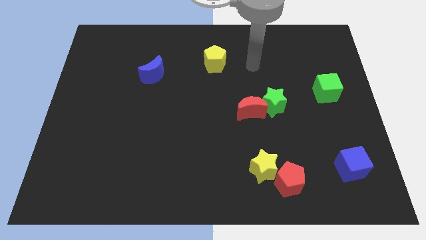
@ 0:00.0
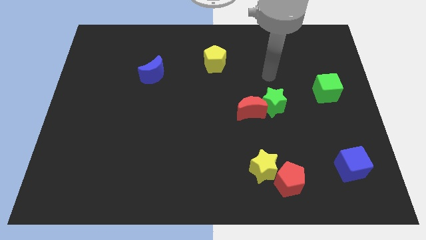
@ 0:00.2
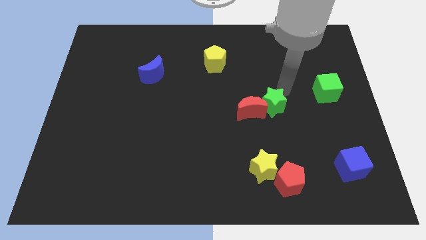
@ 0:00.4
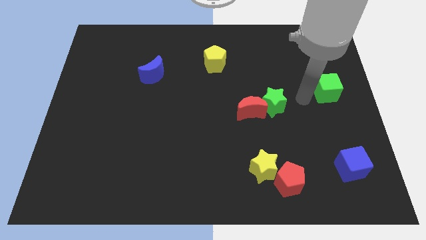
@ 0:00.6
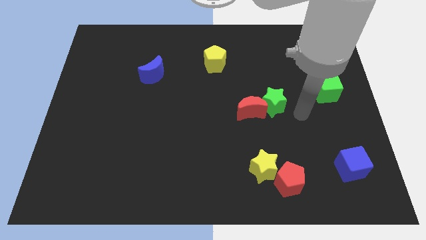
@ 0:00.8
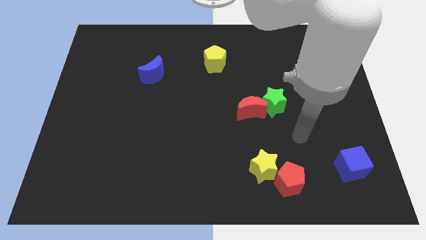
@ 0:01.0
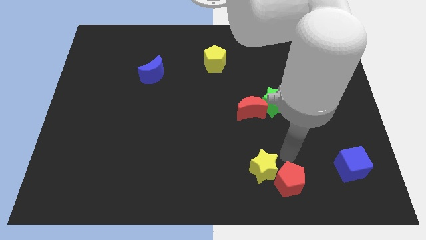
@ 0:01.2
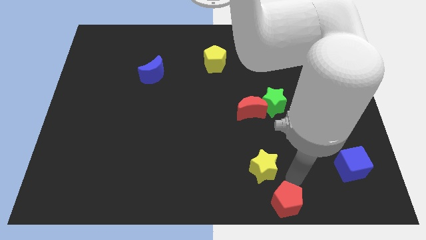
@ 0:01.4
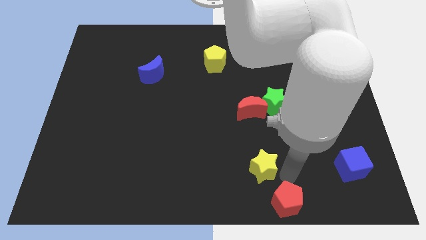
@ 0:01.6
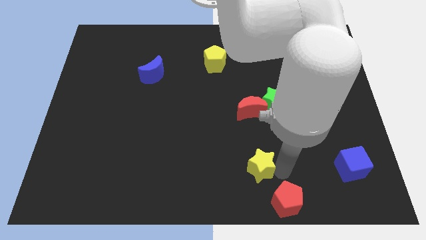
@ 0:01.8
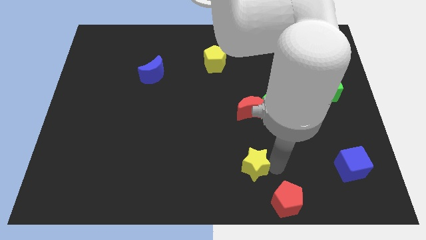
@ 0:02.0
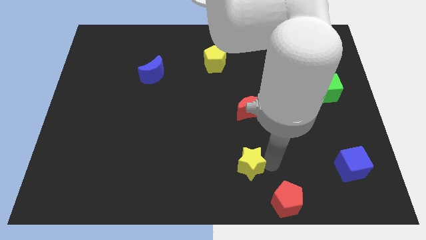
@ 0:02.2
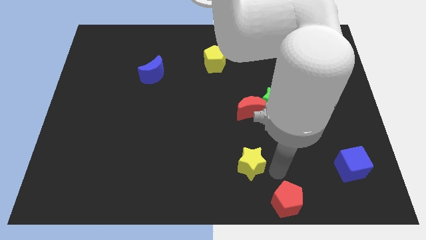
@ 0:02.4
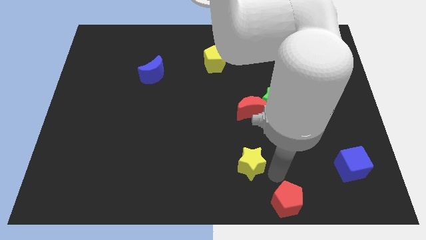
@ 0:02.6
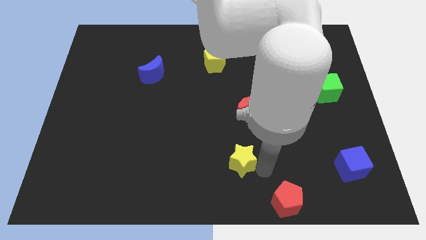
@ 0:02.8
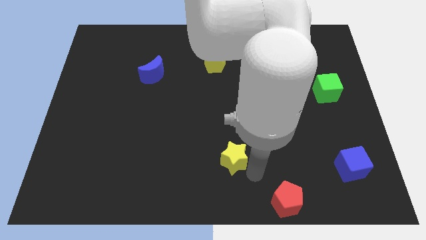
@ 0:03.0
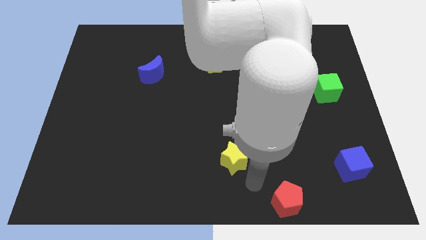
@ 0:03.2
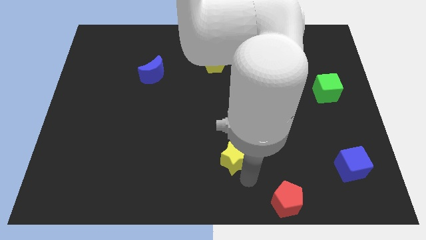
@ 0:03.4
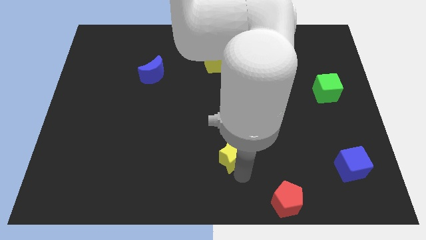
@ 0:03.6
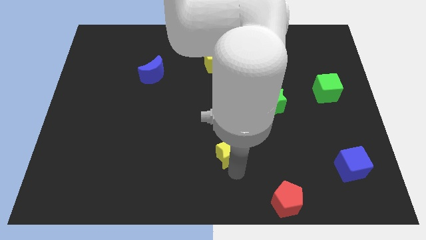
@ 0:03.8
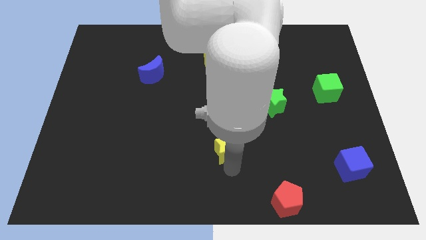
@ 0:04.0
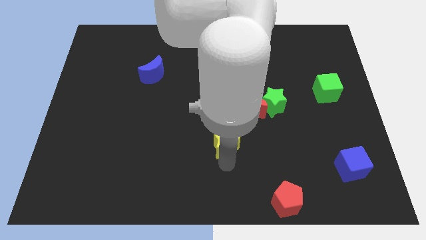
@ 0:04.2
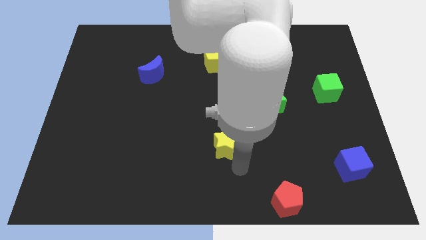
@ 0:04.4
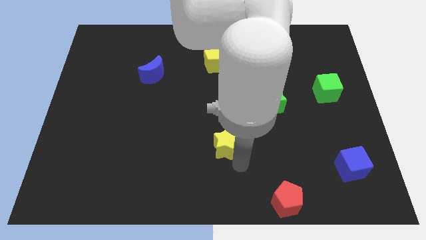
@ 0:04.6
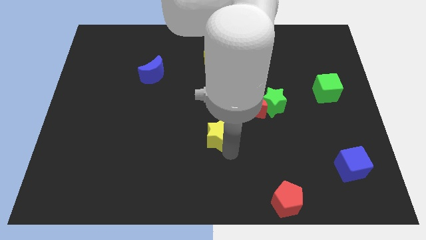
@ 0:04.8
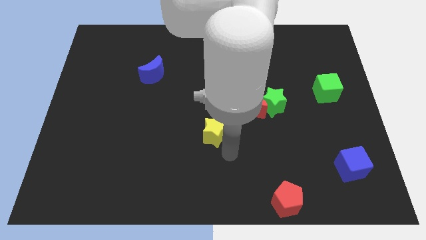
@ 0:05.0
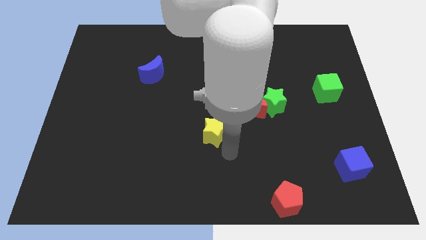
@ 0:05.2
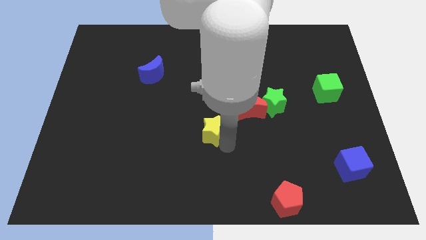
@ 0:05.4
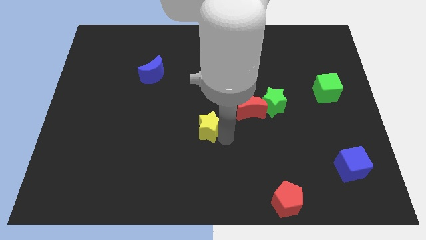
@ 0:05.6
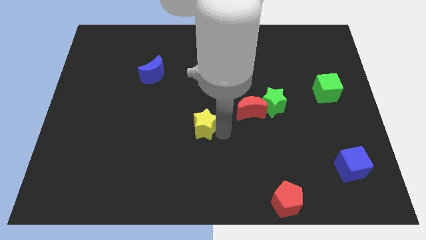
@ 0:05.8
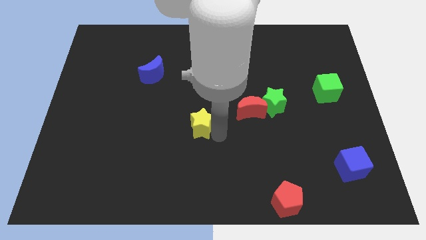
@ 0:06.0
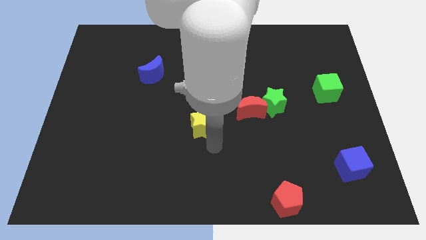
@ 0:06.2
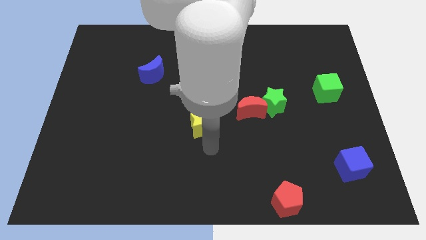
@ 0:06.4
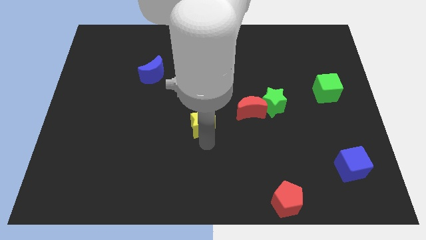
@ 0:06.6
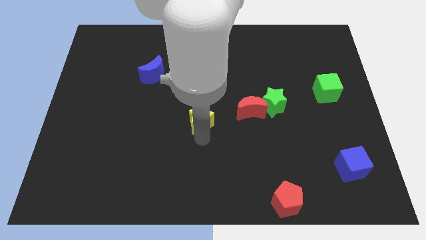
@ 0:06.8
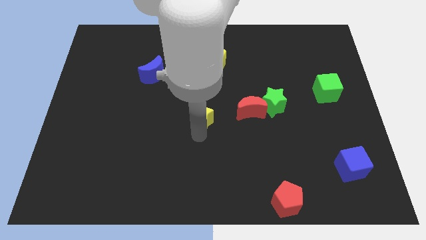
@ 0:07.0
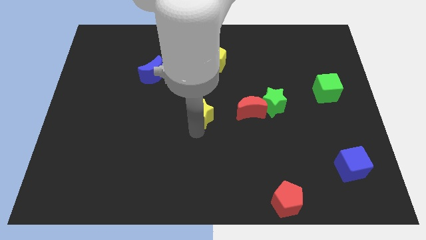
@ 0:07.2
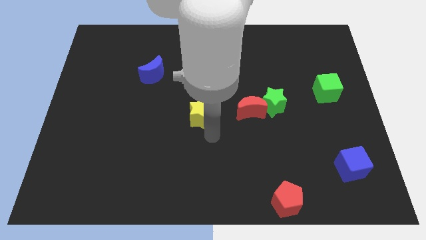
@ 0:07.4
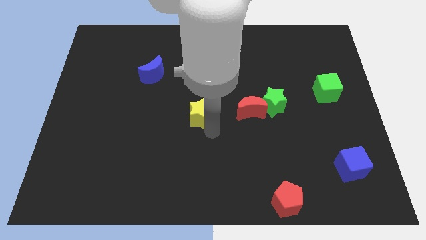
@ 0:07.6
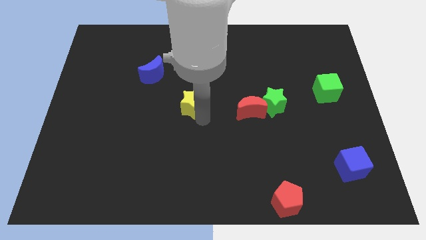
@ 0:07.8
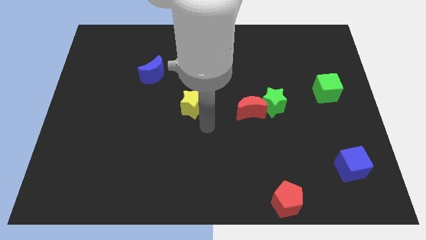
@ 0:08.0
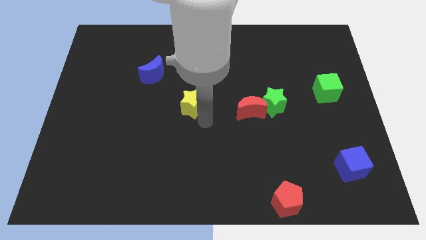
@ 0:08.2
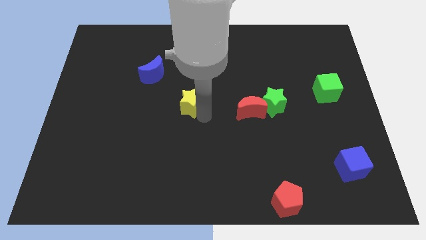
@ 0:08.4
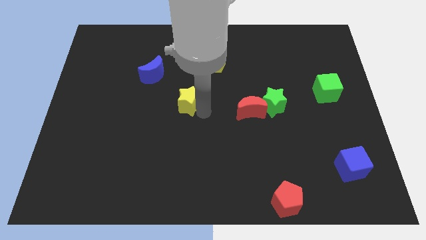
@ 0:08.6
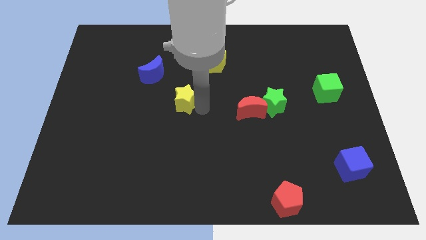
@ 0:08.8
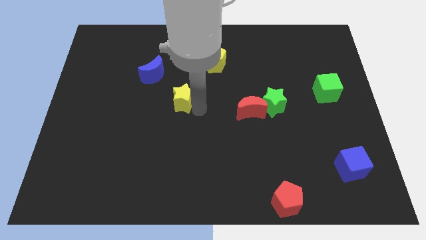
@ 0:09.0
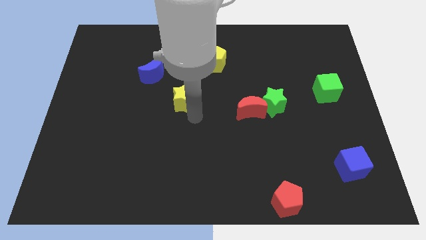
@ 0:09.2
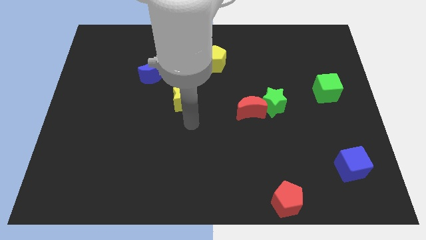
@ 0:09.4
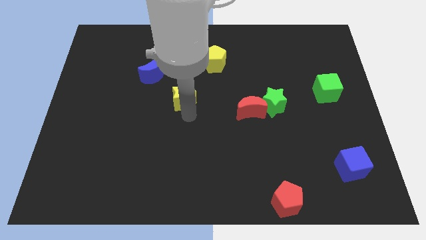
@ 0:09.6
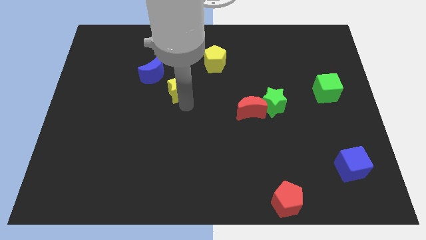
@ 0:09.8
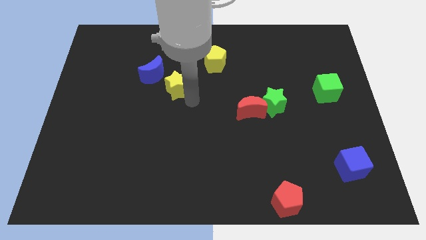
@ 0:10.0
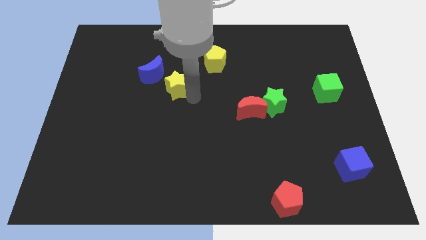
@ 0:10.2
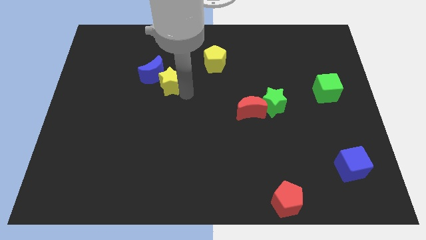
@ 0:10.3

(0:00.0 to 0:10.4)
slide the yellow star close to the blue moon

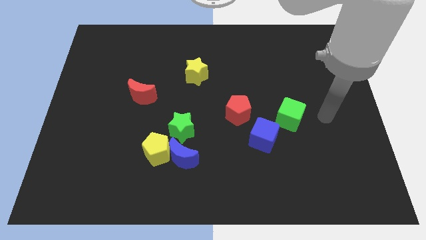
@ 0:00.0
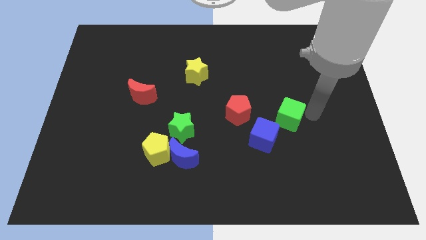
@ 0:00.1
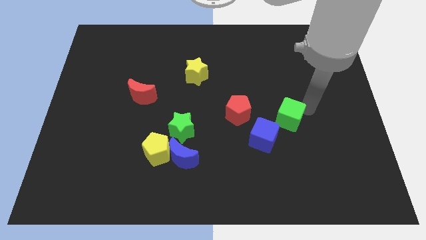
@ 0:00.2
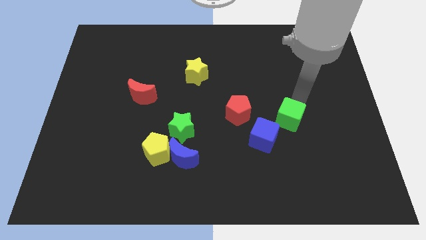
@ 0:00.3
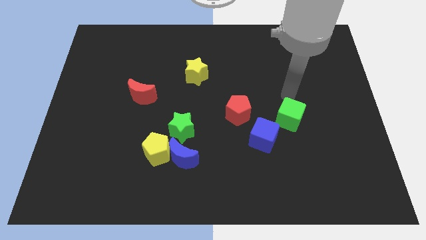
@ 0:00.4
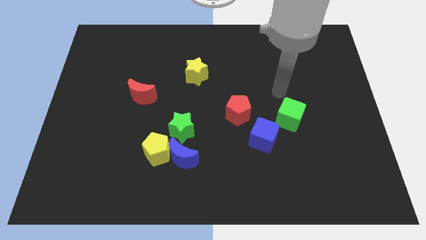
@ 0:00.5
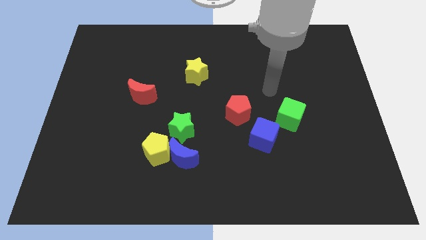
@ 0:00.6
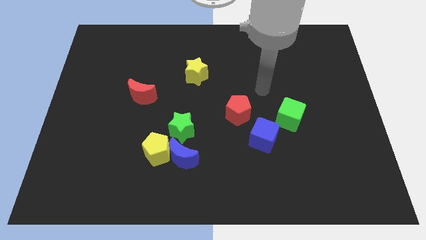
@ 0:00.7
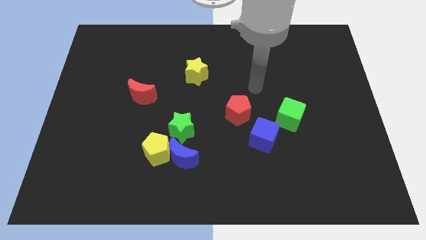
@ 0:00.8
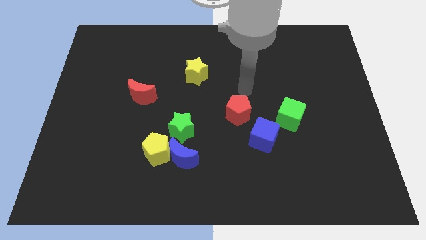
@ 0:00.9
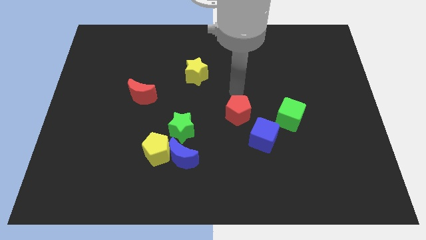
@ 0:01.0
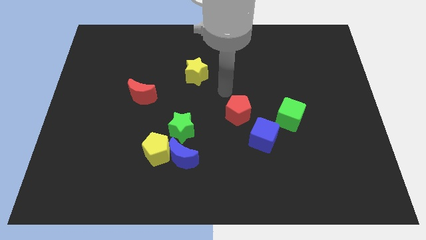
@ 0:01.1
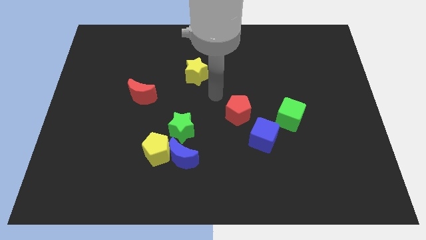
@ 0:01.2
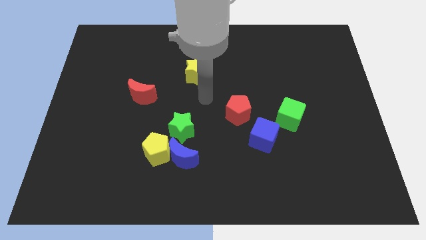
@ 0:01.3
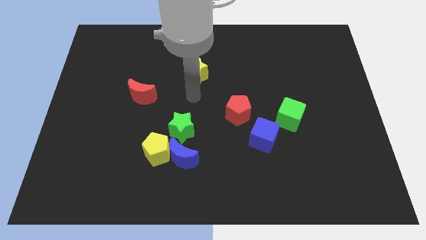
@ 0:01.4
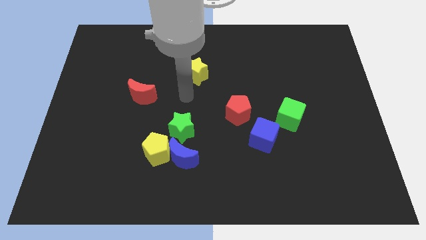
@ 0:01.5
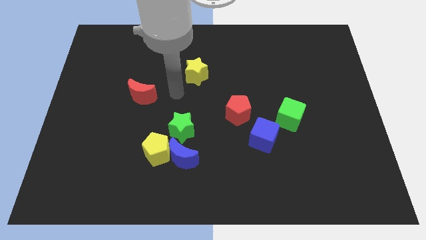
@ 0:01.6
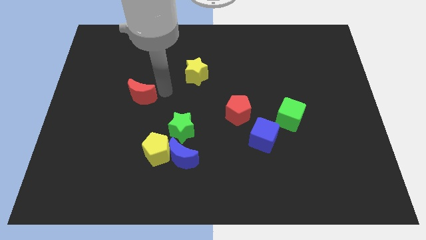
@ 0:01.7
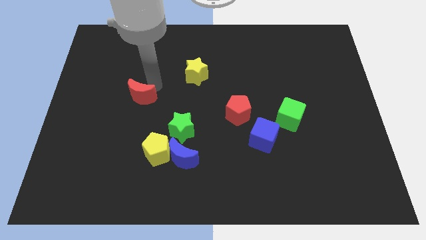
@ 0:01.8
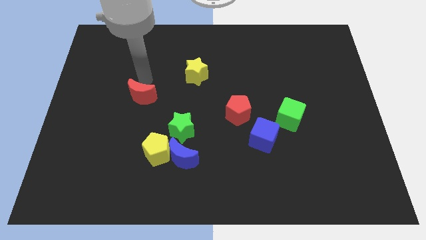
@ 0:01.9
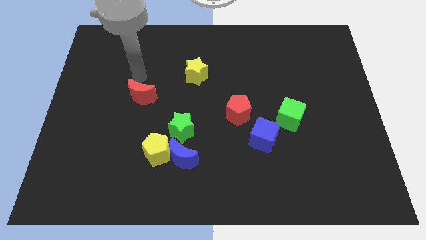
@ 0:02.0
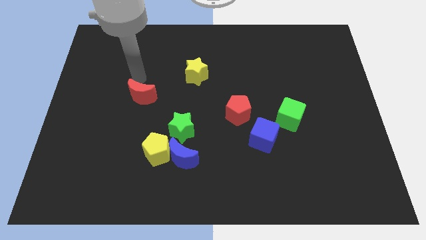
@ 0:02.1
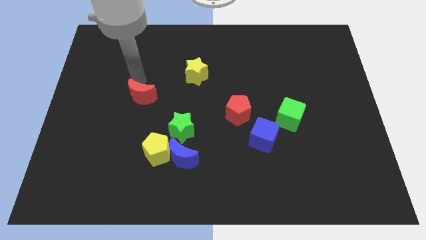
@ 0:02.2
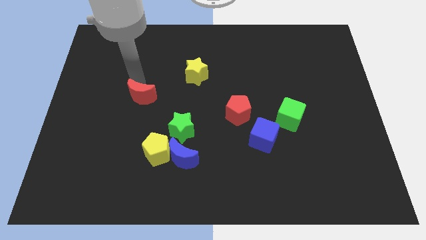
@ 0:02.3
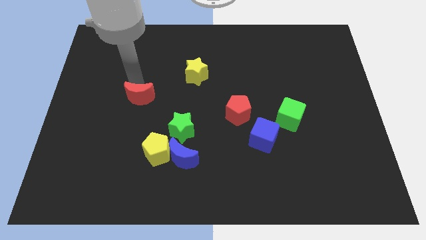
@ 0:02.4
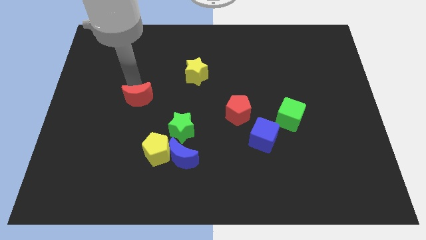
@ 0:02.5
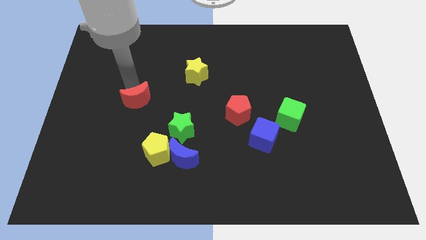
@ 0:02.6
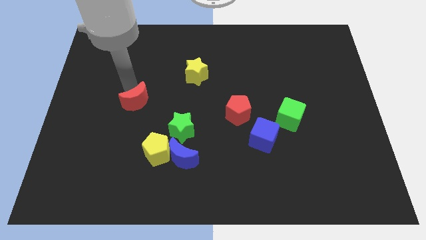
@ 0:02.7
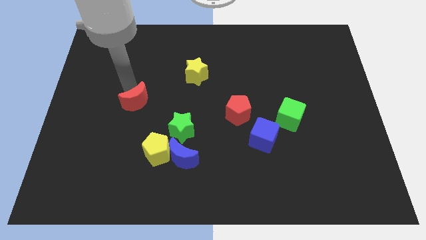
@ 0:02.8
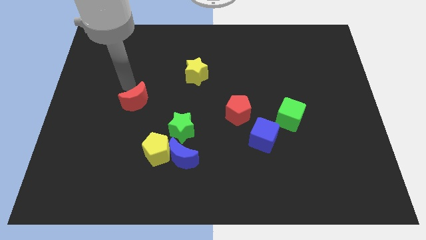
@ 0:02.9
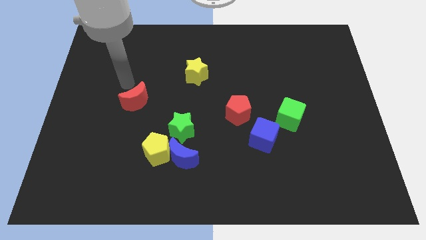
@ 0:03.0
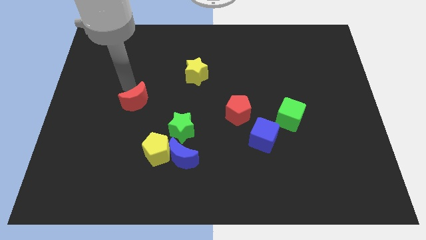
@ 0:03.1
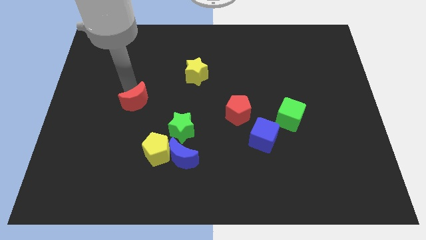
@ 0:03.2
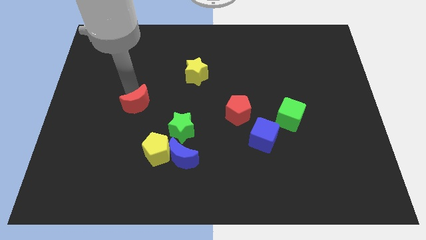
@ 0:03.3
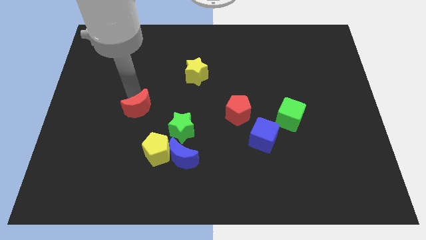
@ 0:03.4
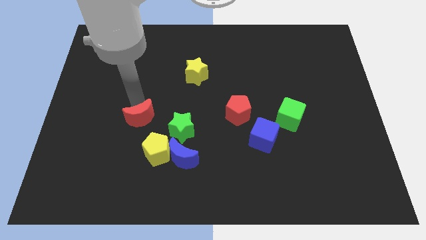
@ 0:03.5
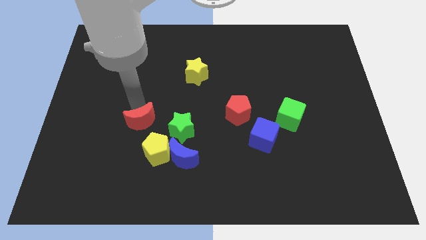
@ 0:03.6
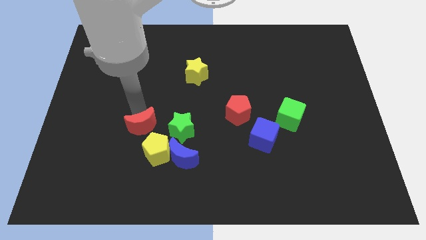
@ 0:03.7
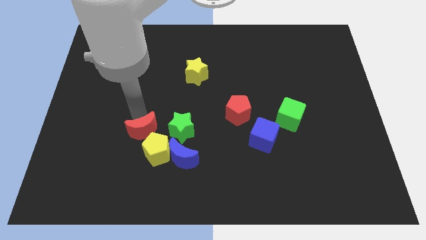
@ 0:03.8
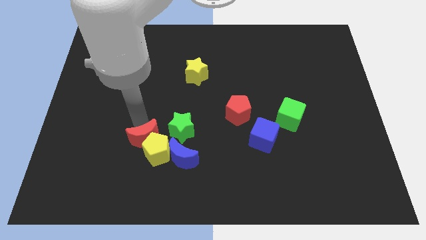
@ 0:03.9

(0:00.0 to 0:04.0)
push the red moon next to the yellow pentagon
